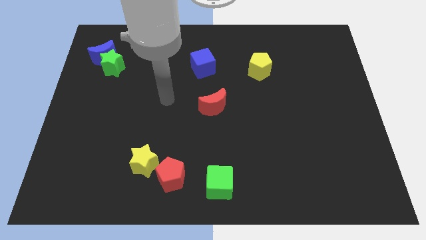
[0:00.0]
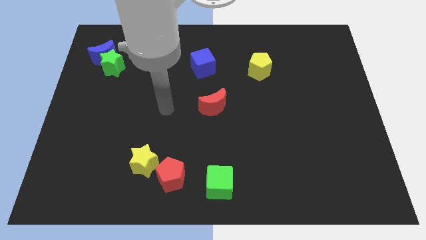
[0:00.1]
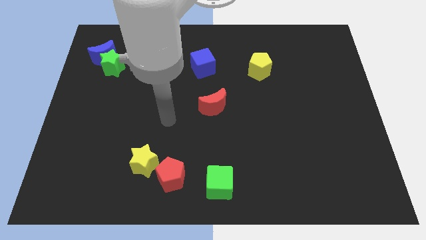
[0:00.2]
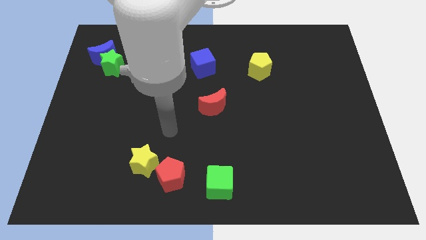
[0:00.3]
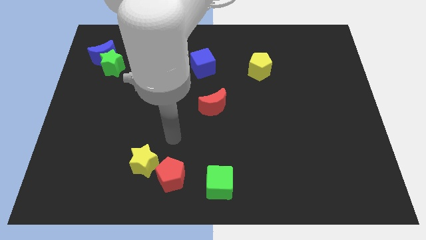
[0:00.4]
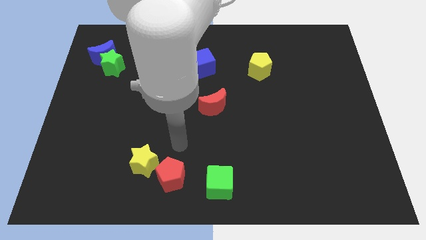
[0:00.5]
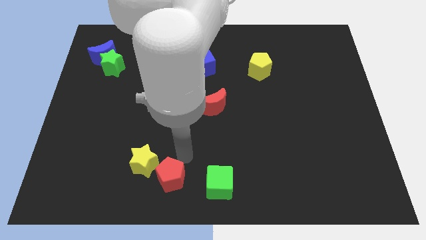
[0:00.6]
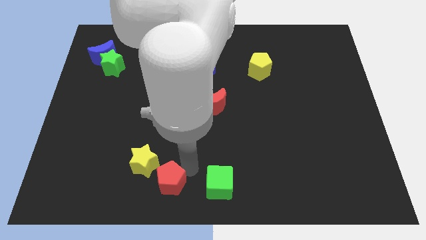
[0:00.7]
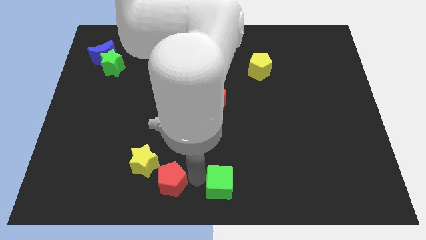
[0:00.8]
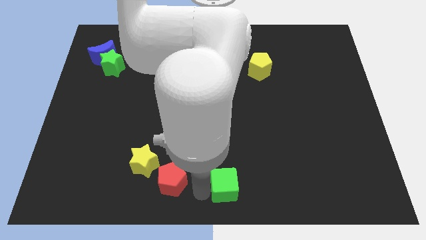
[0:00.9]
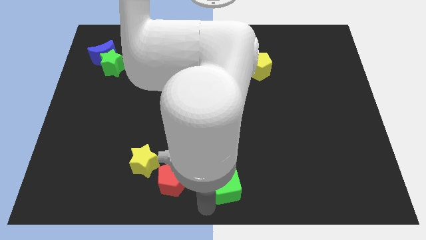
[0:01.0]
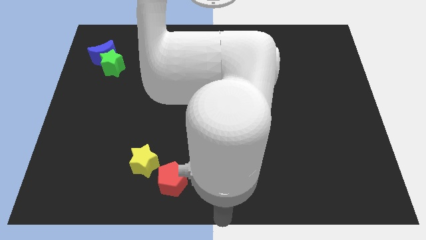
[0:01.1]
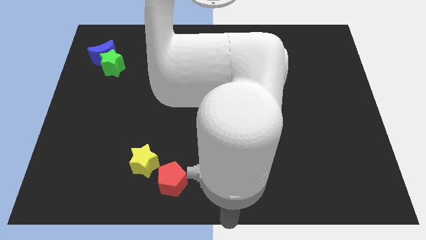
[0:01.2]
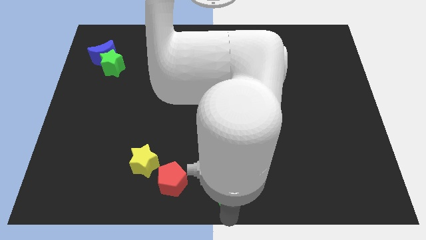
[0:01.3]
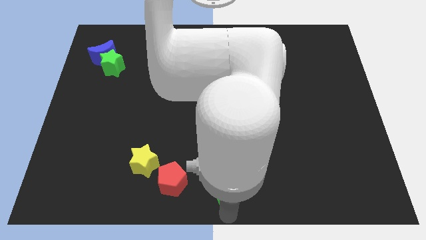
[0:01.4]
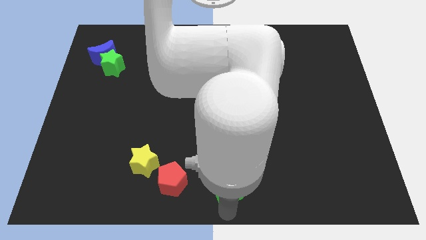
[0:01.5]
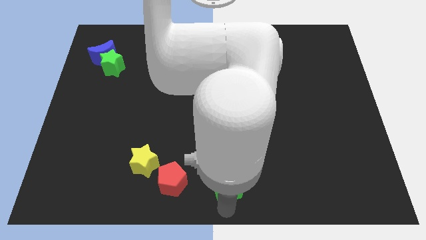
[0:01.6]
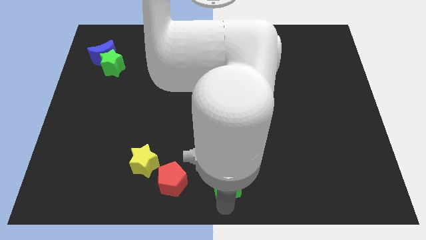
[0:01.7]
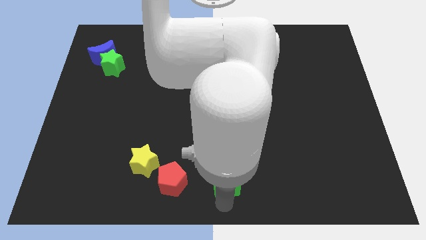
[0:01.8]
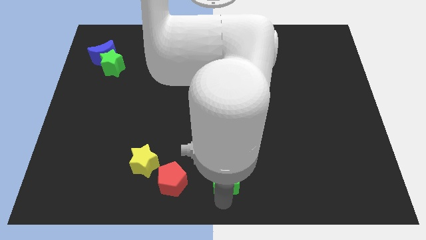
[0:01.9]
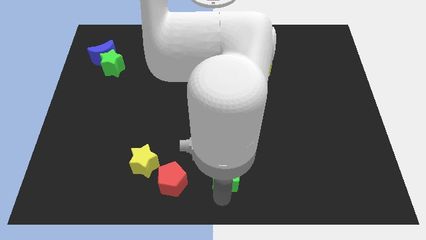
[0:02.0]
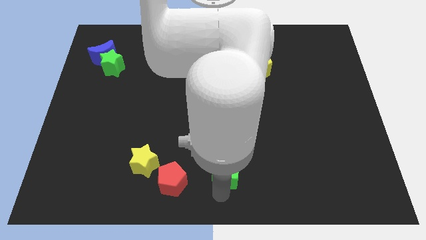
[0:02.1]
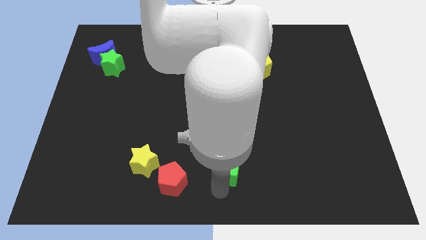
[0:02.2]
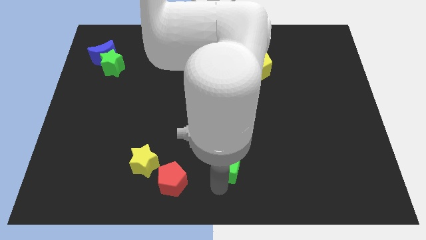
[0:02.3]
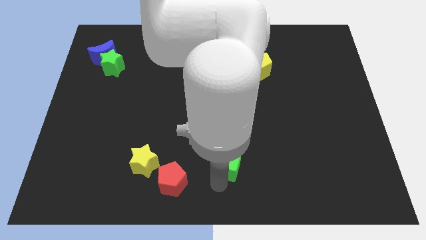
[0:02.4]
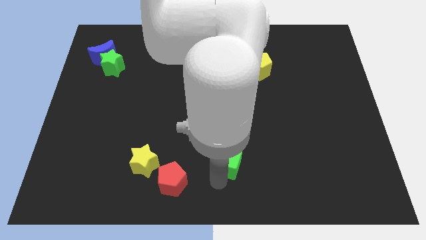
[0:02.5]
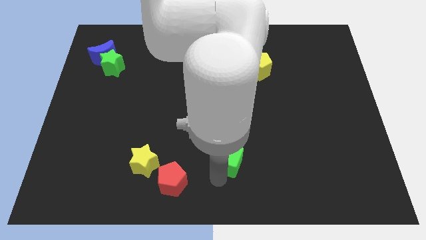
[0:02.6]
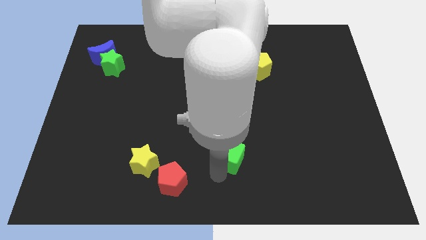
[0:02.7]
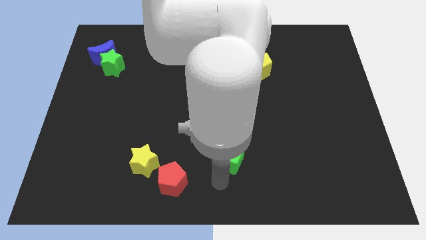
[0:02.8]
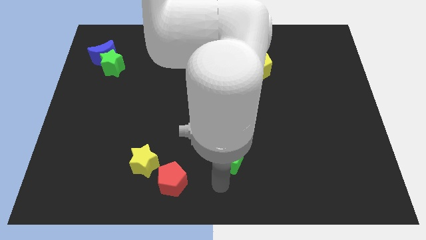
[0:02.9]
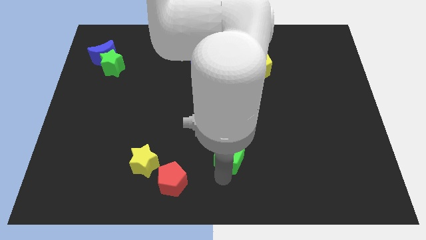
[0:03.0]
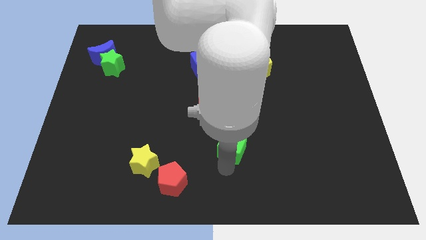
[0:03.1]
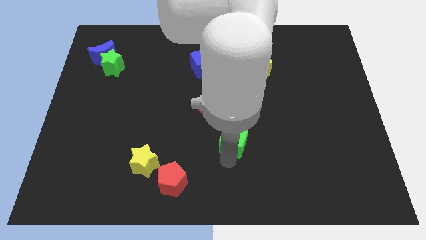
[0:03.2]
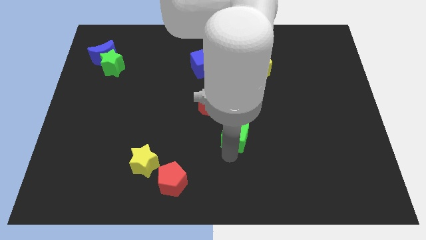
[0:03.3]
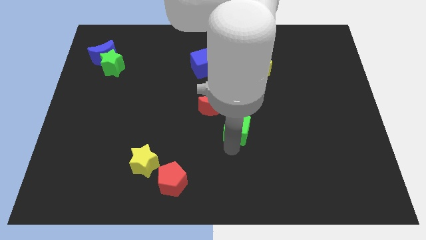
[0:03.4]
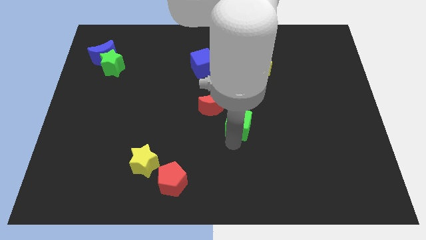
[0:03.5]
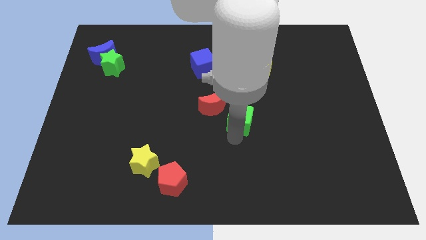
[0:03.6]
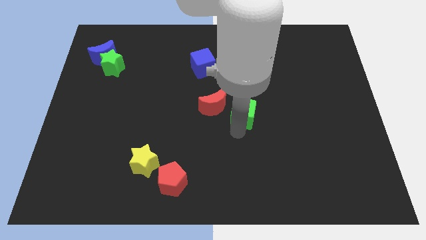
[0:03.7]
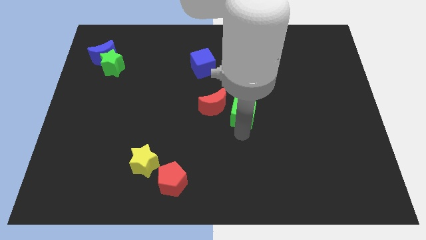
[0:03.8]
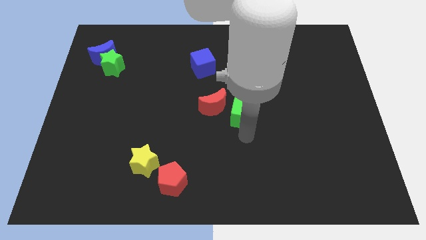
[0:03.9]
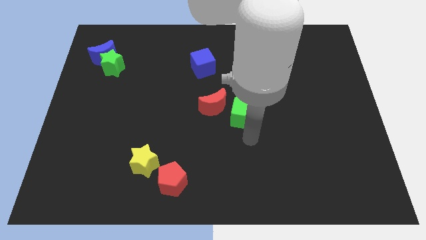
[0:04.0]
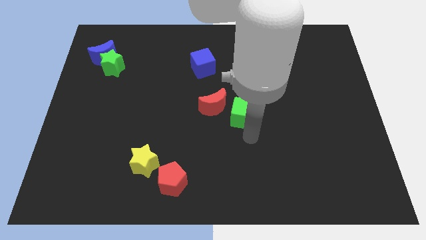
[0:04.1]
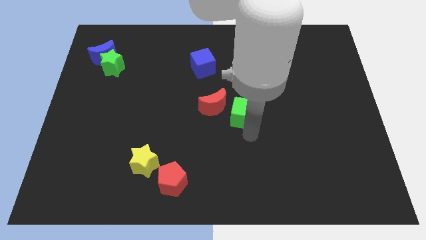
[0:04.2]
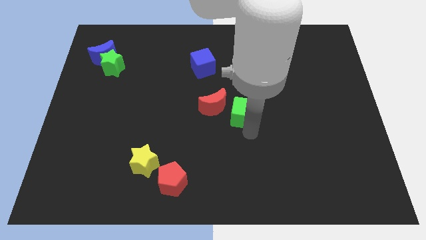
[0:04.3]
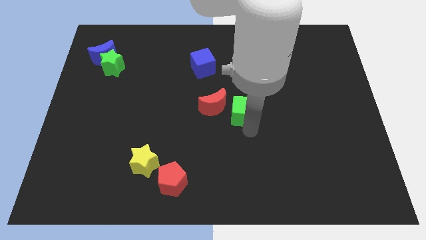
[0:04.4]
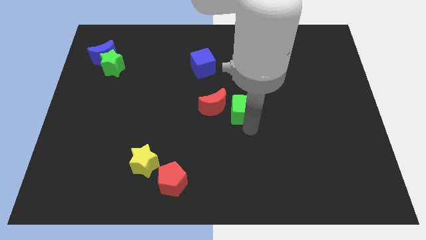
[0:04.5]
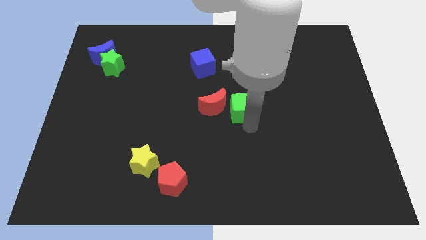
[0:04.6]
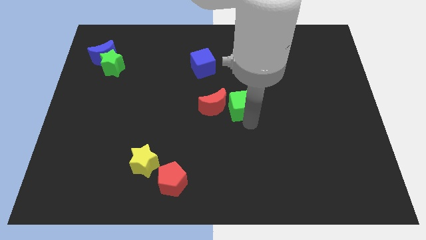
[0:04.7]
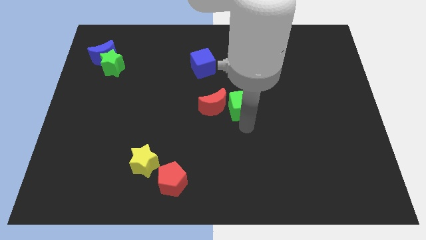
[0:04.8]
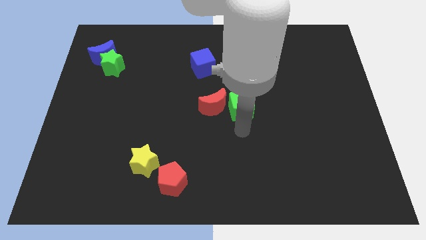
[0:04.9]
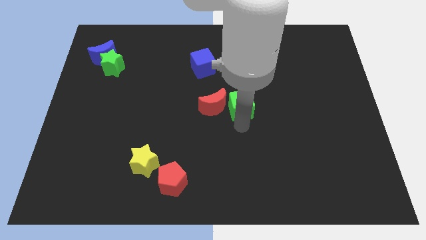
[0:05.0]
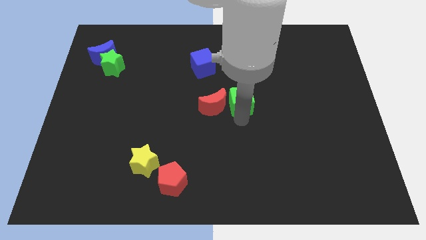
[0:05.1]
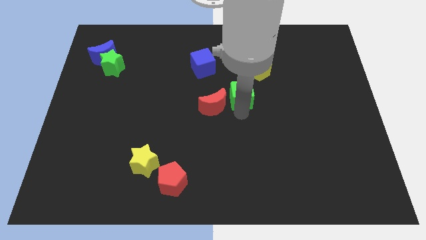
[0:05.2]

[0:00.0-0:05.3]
put the green cube to the bottom left of the yellow pentagon

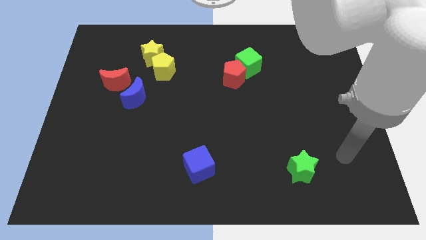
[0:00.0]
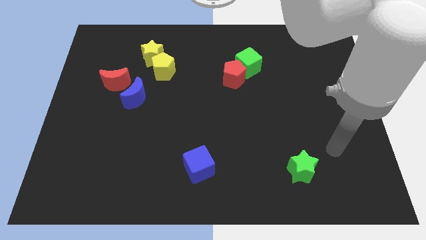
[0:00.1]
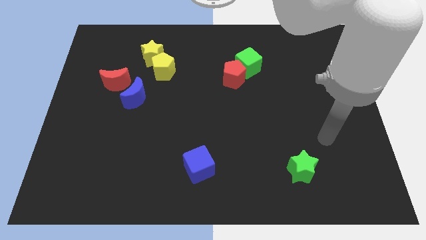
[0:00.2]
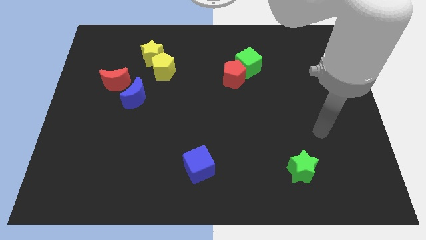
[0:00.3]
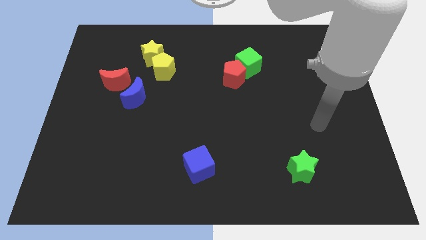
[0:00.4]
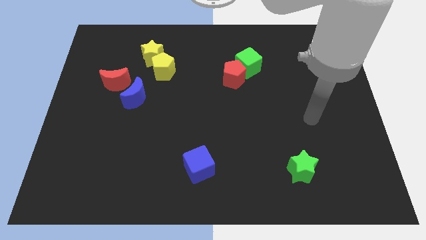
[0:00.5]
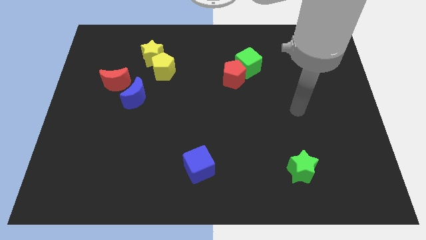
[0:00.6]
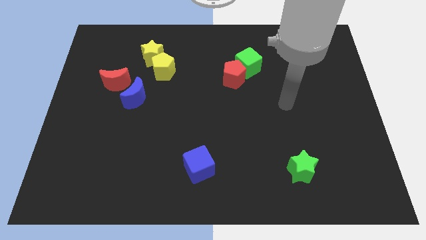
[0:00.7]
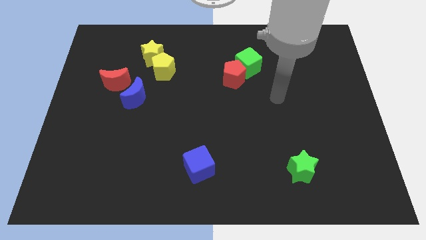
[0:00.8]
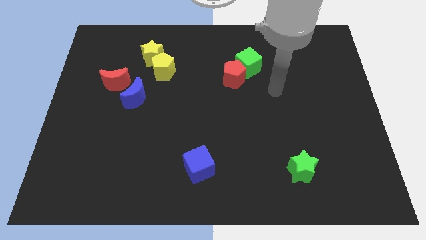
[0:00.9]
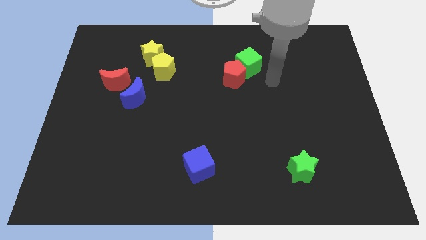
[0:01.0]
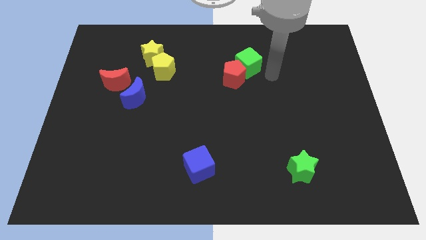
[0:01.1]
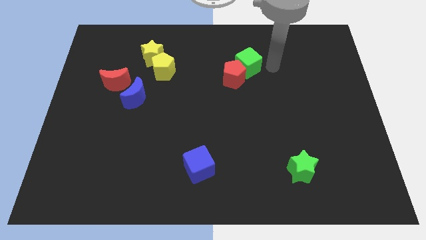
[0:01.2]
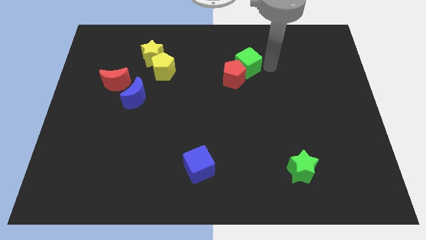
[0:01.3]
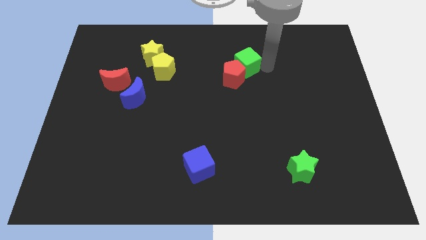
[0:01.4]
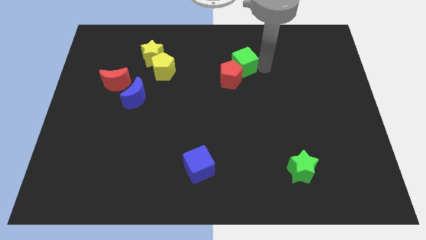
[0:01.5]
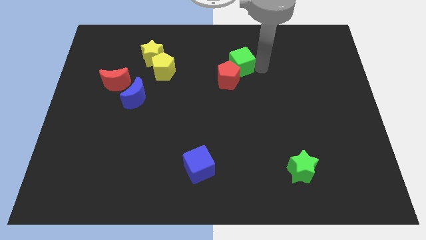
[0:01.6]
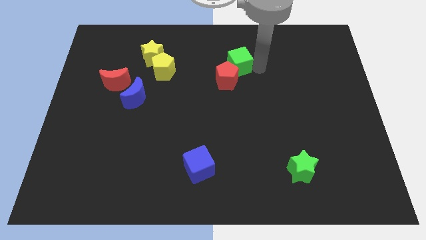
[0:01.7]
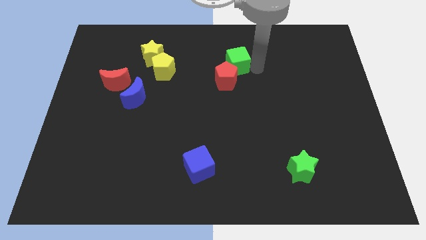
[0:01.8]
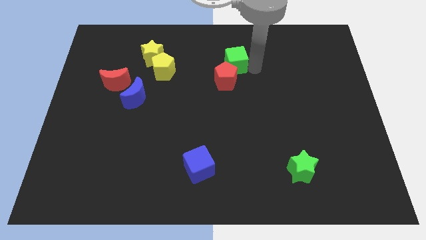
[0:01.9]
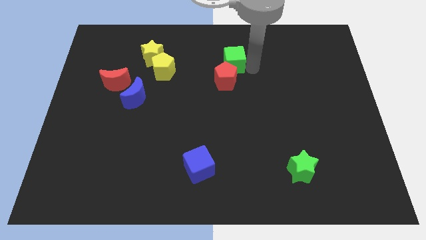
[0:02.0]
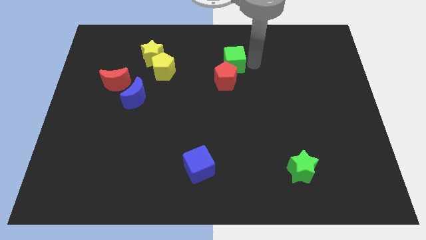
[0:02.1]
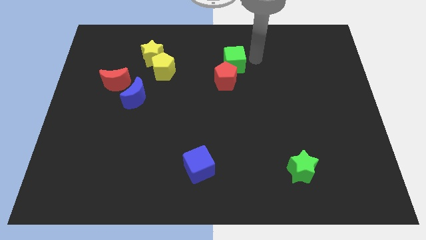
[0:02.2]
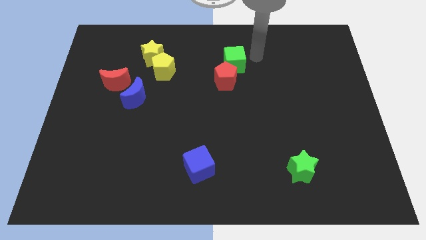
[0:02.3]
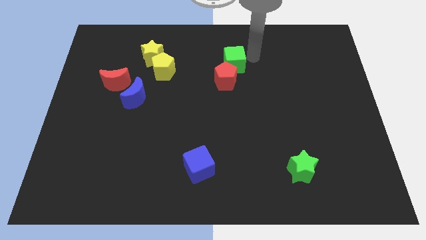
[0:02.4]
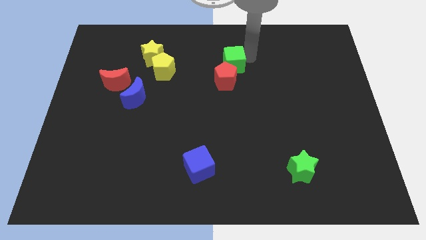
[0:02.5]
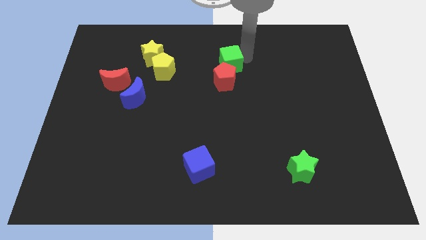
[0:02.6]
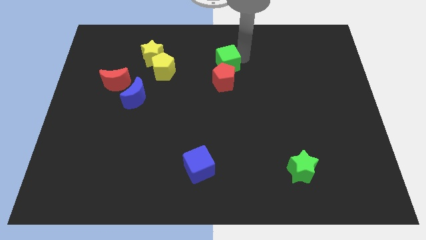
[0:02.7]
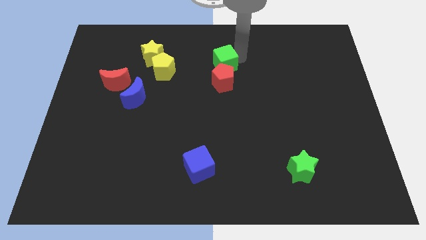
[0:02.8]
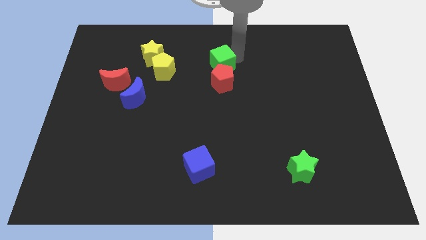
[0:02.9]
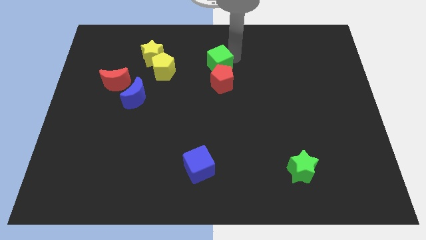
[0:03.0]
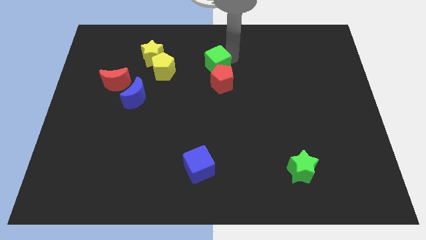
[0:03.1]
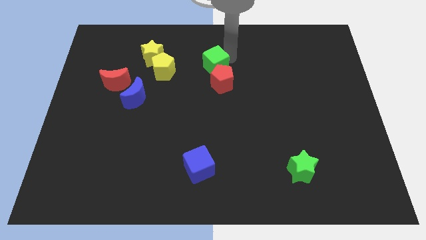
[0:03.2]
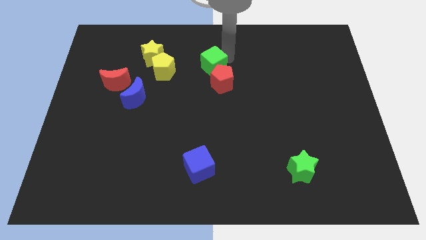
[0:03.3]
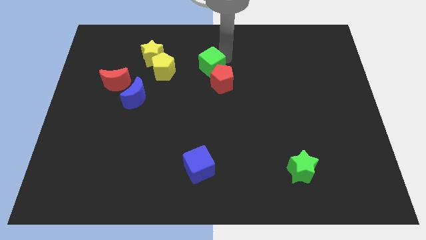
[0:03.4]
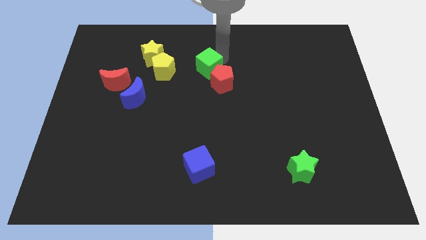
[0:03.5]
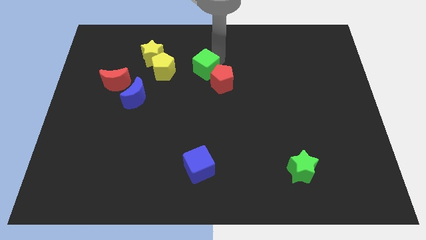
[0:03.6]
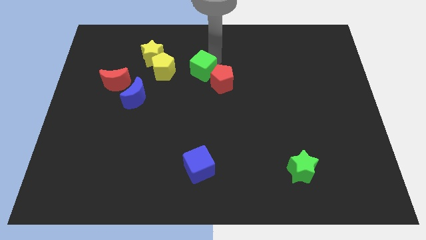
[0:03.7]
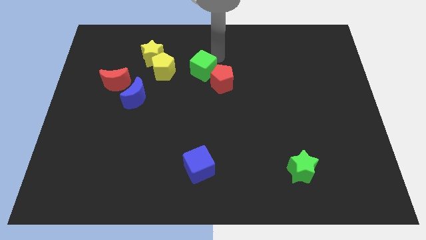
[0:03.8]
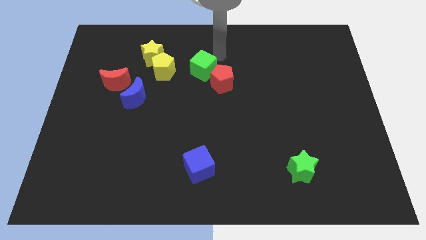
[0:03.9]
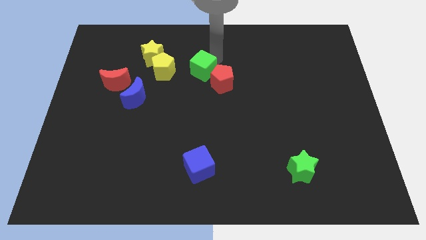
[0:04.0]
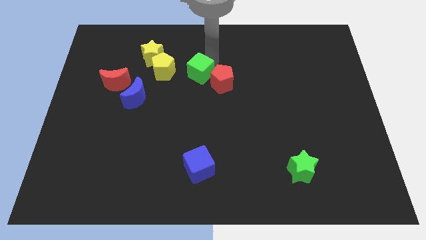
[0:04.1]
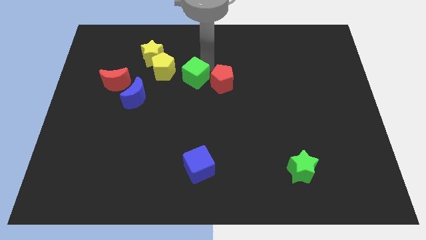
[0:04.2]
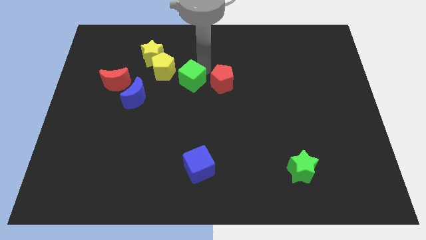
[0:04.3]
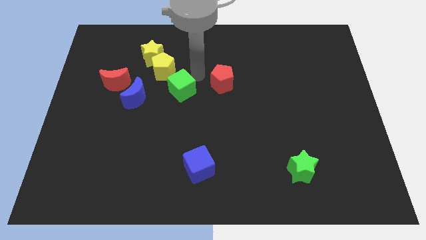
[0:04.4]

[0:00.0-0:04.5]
slide the green cube to the bottom of the yellow pentagon
